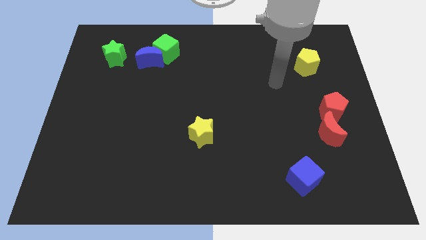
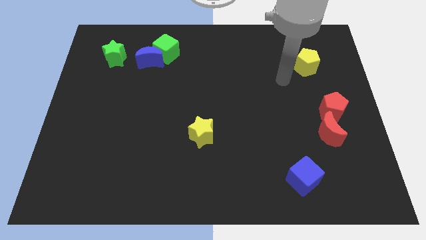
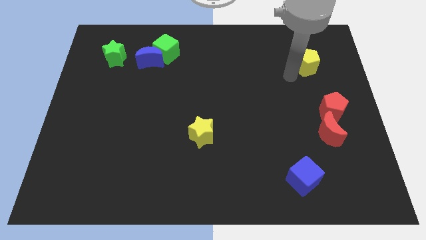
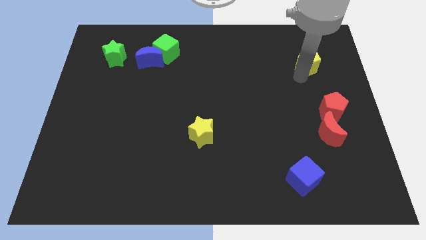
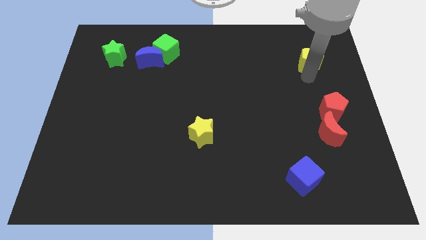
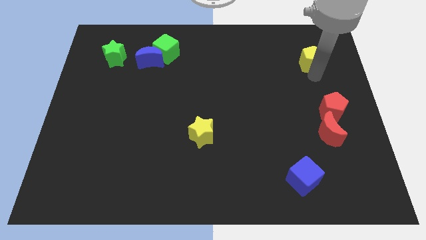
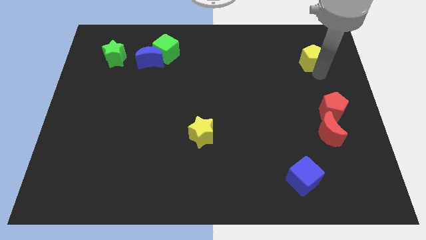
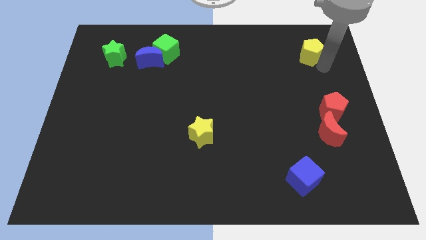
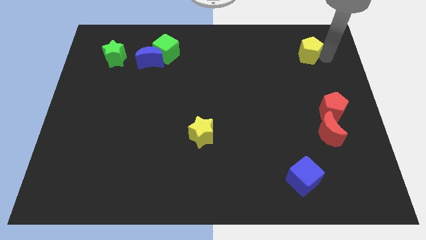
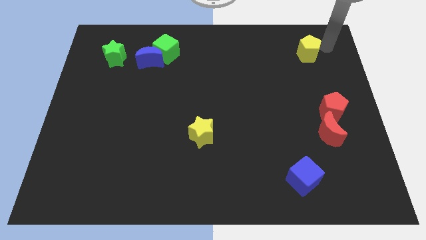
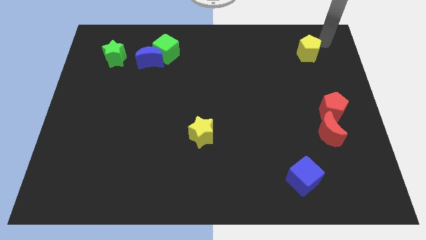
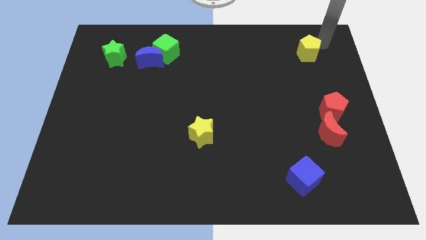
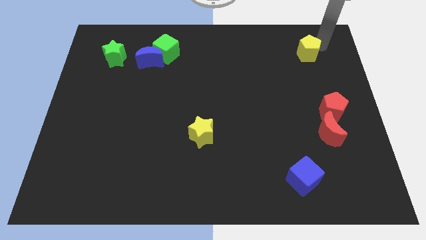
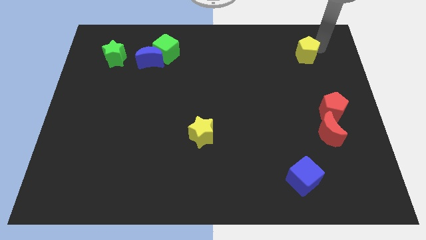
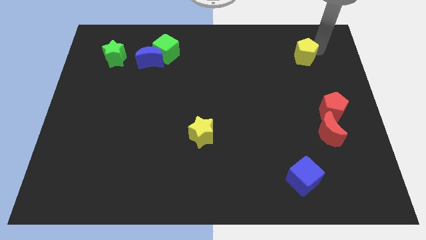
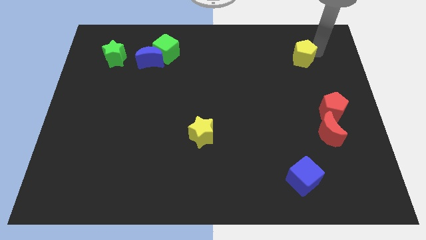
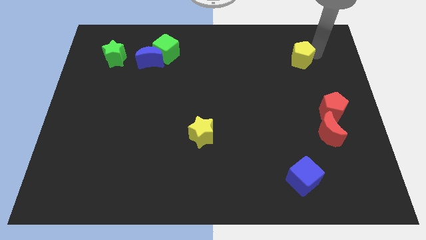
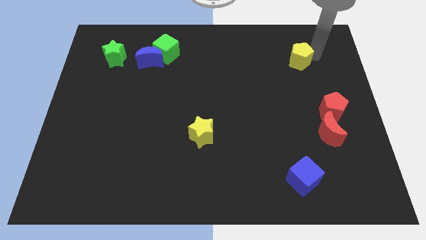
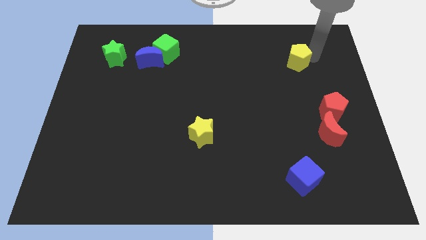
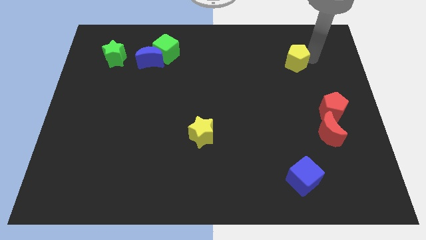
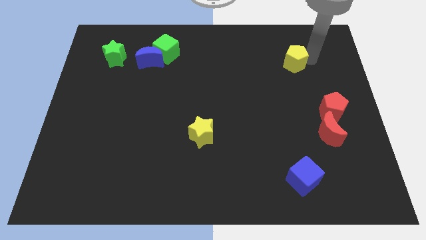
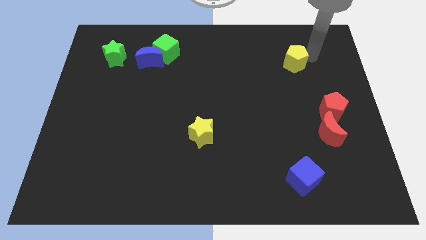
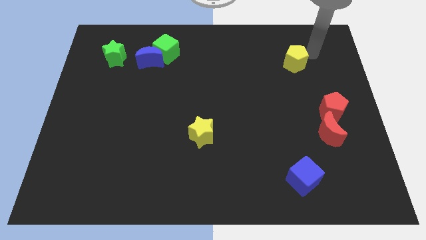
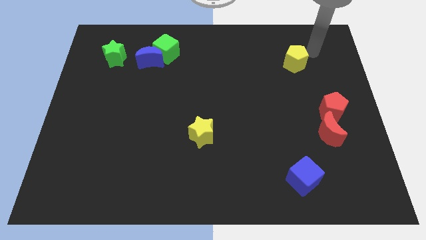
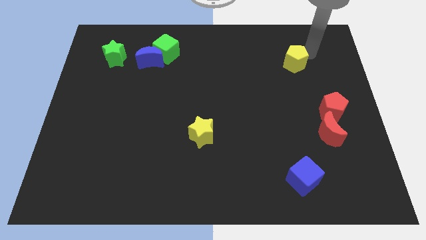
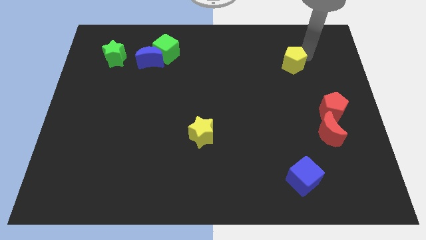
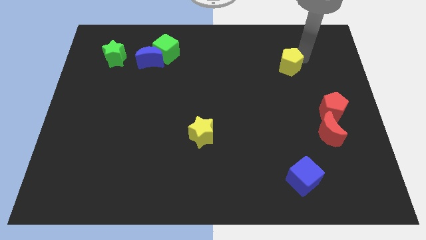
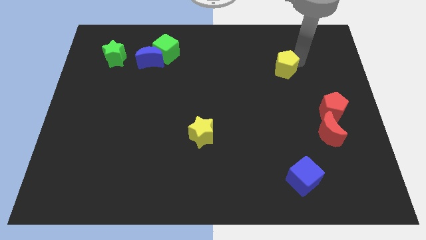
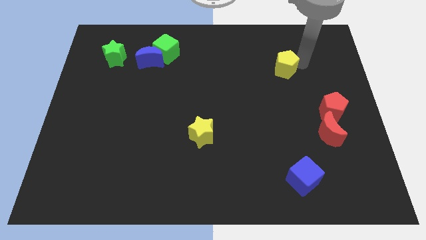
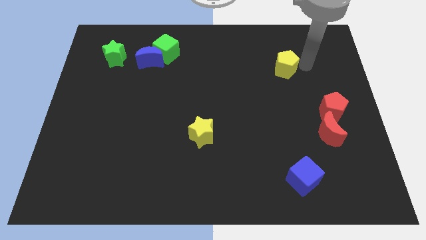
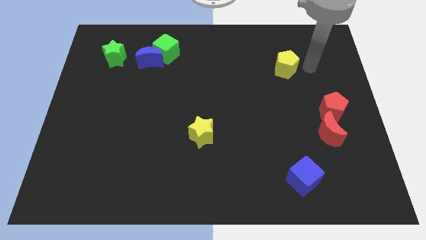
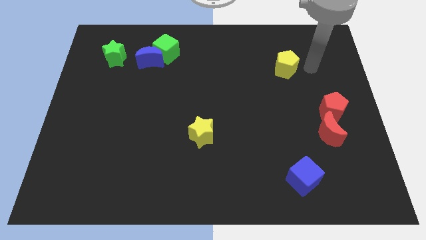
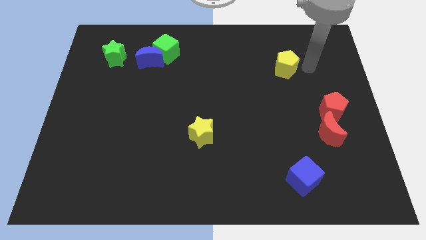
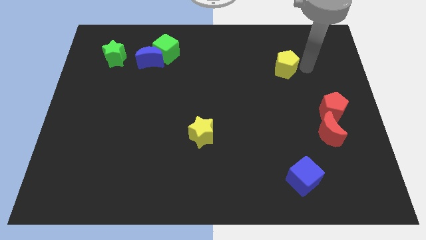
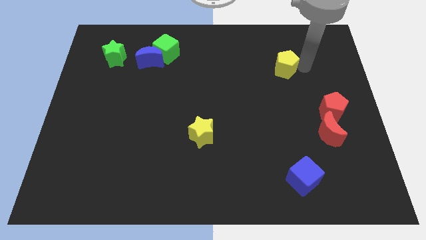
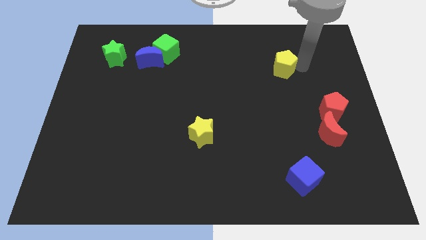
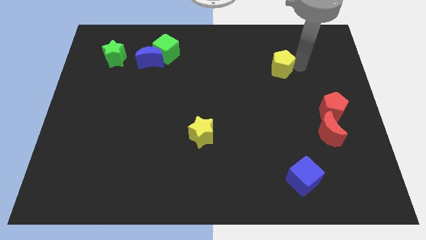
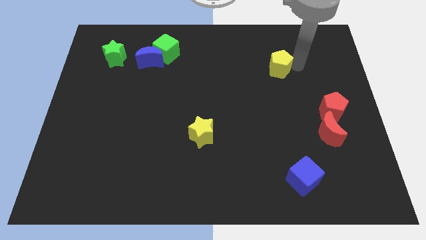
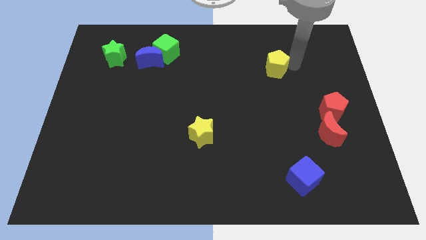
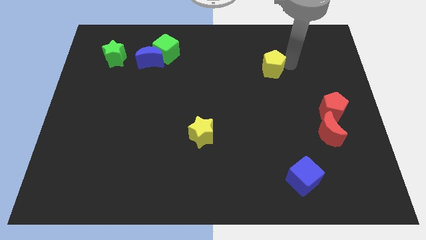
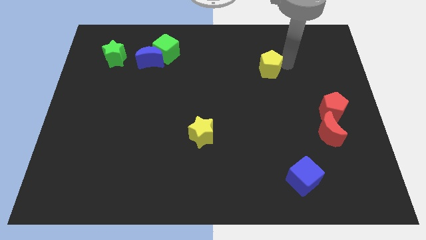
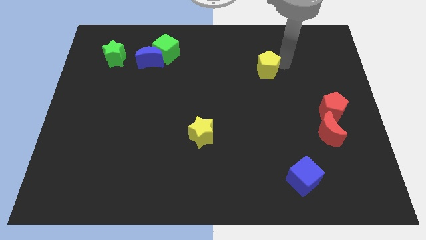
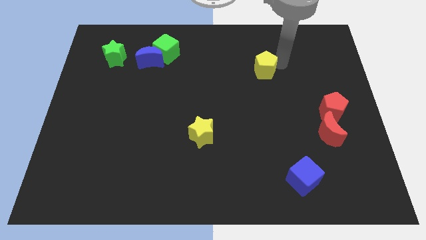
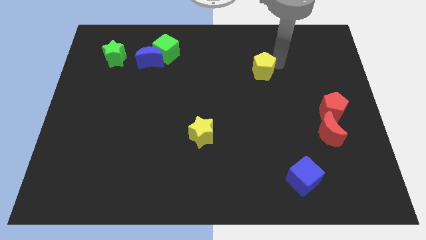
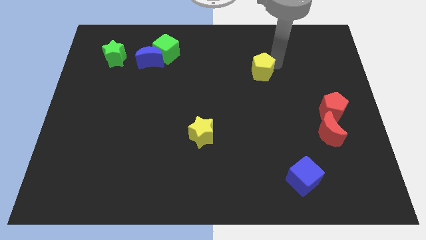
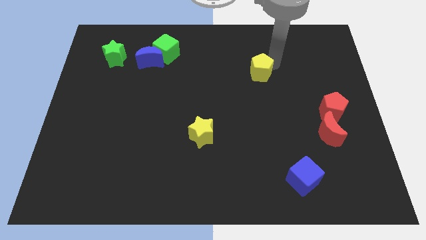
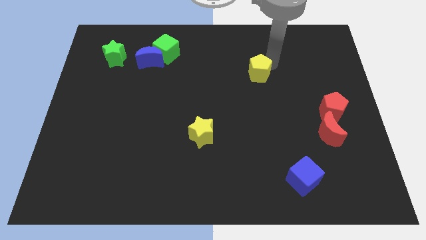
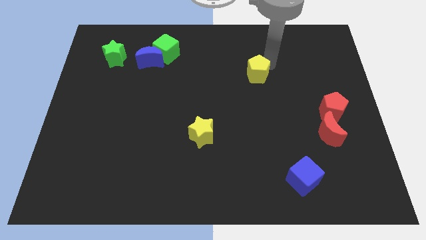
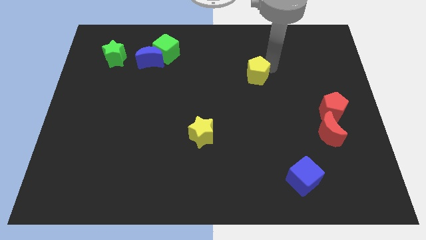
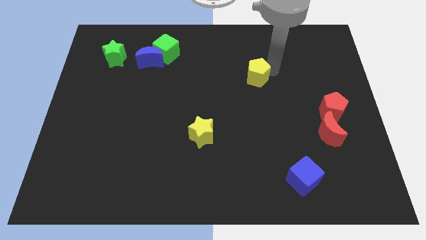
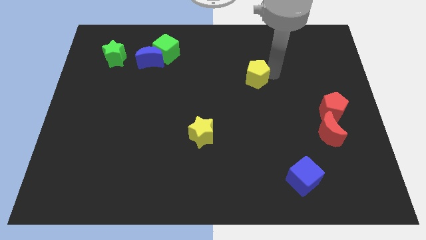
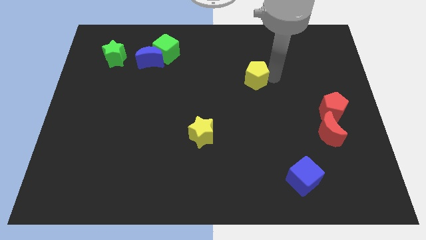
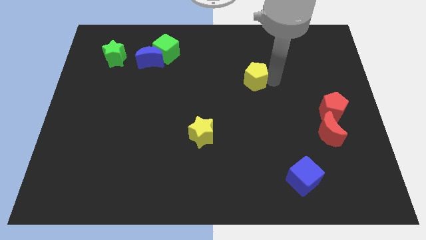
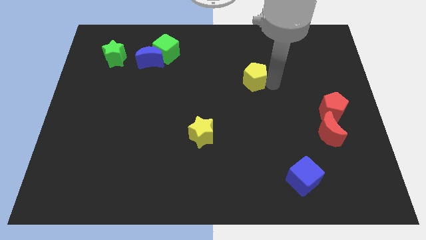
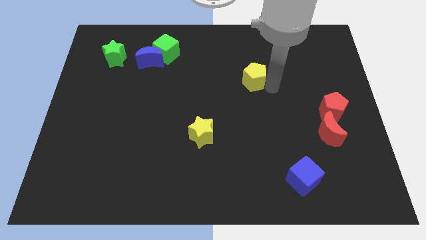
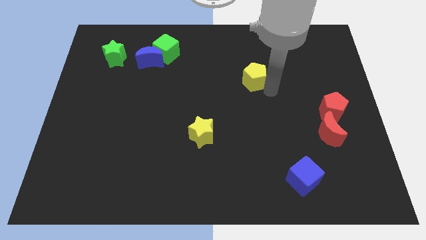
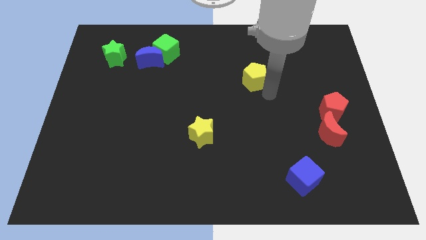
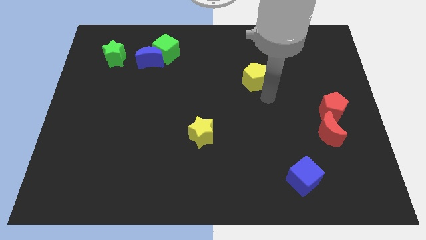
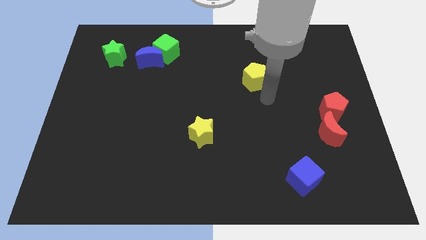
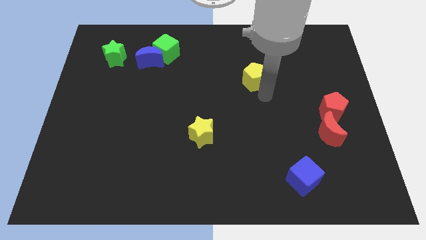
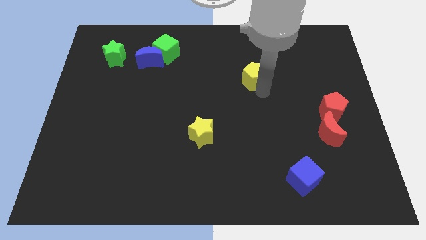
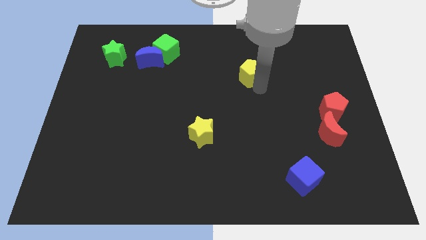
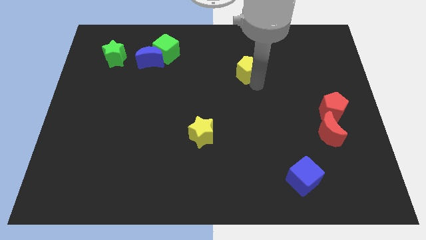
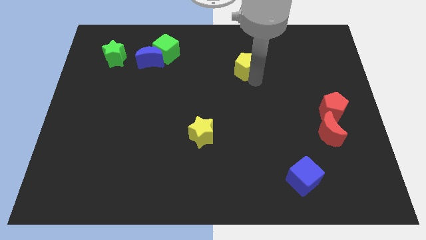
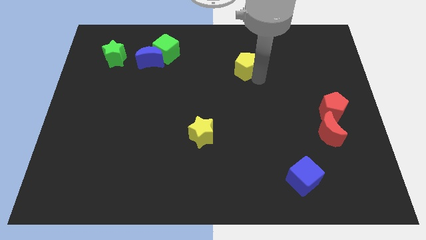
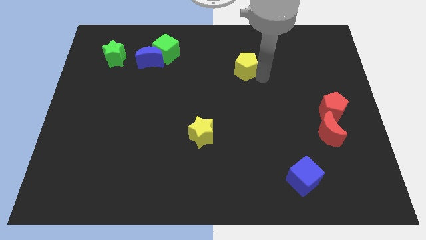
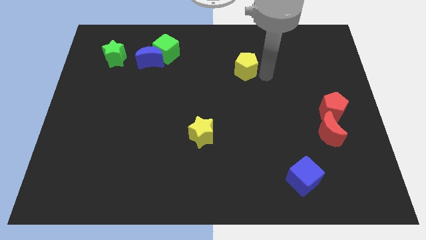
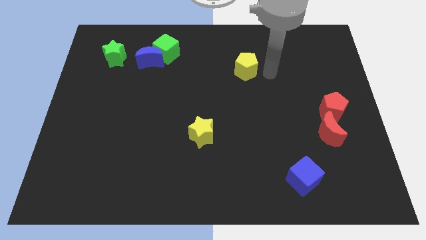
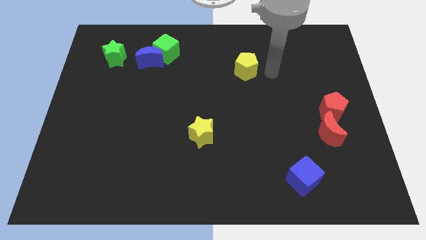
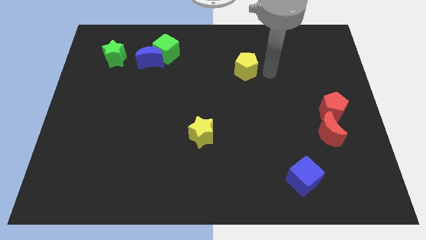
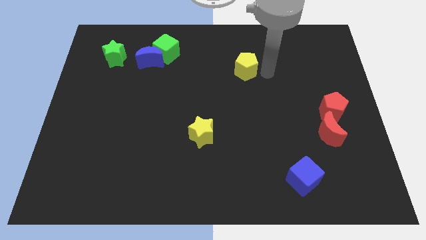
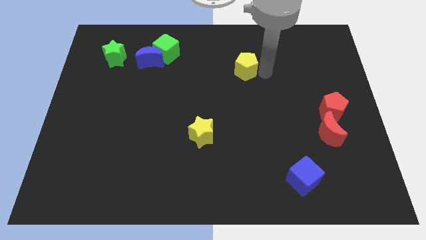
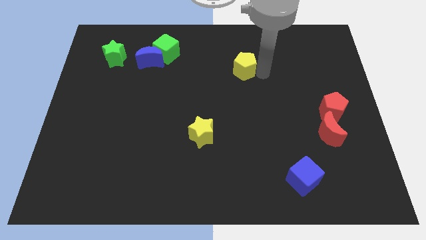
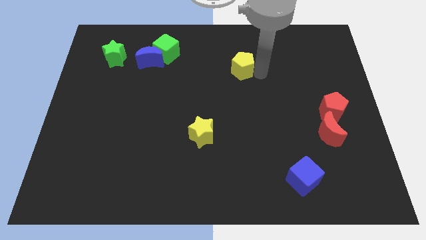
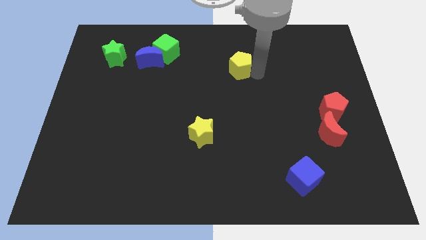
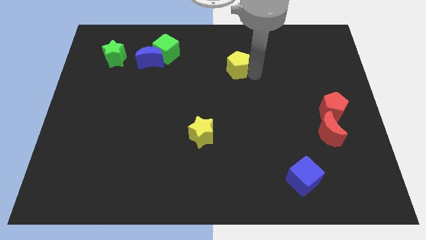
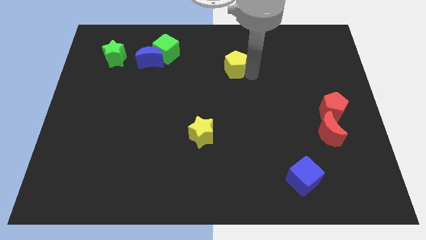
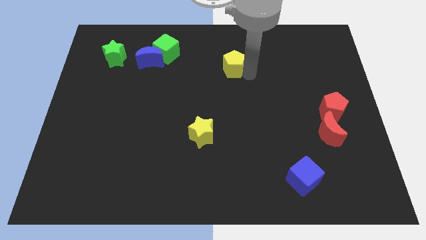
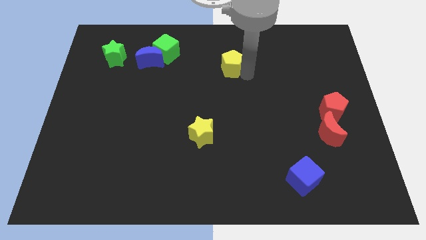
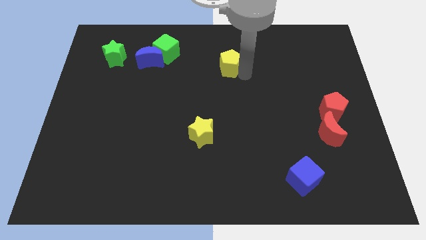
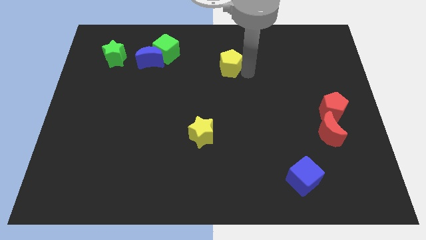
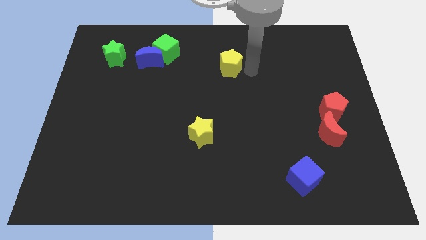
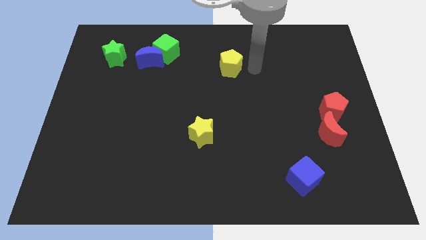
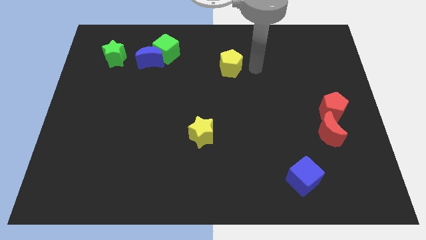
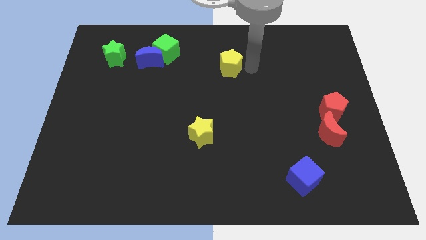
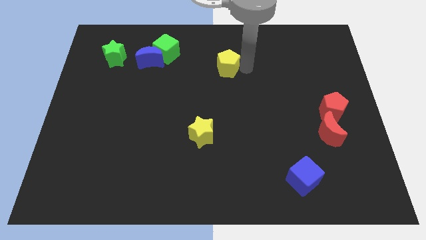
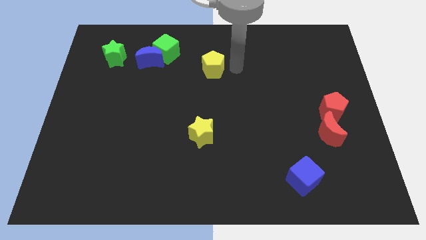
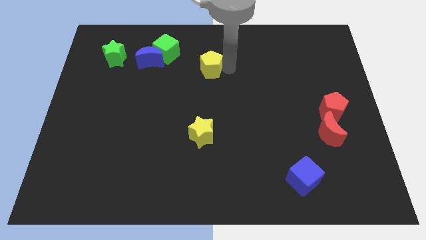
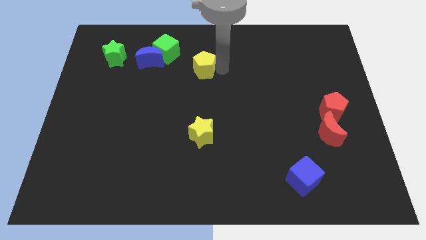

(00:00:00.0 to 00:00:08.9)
push the yellow pentagon to the bottom right side of the green cube
